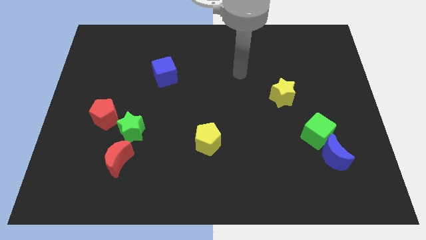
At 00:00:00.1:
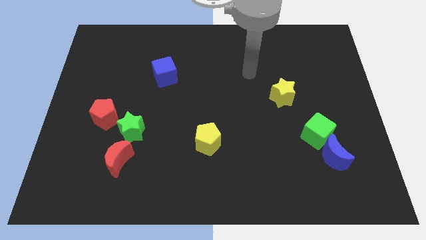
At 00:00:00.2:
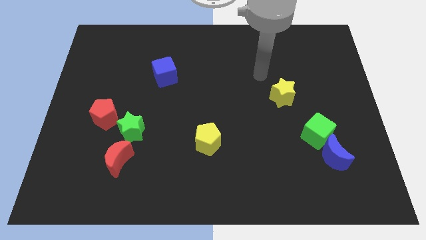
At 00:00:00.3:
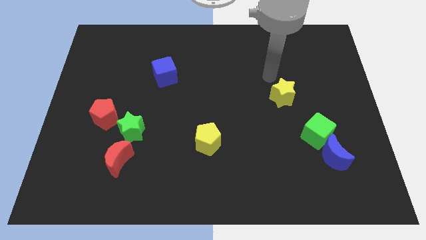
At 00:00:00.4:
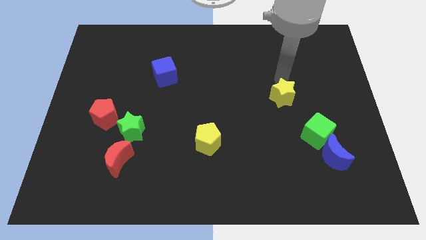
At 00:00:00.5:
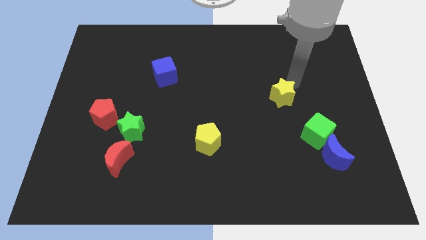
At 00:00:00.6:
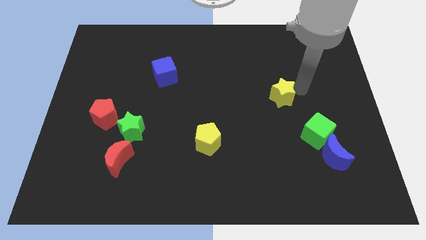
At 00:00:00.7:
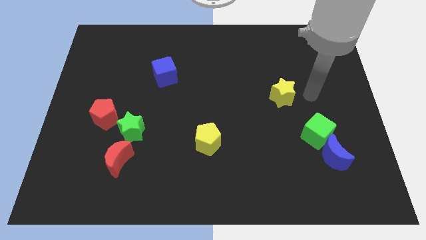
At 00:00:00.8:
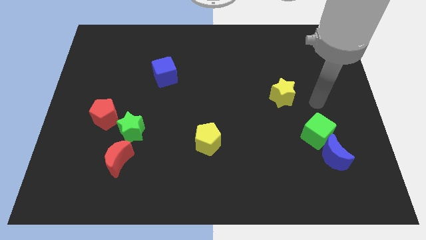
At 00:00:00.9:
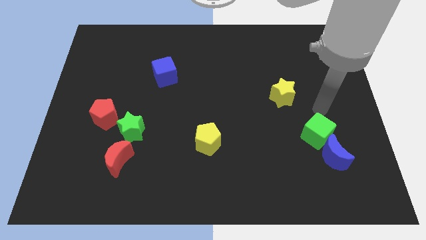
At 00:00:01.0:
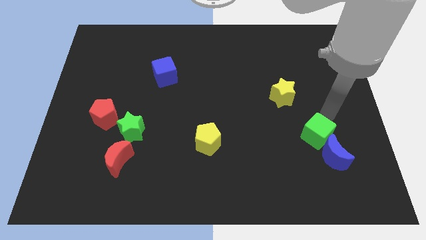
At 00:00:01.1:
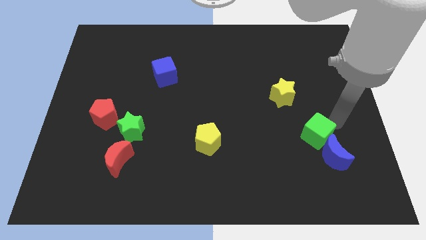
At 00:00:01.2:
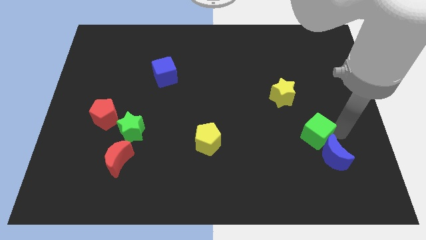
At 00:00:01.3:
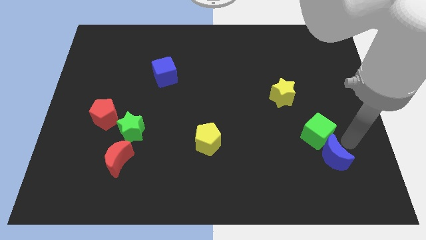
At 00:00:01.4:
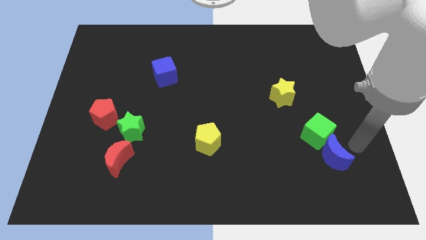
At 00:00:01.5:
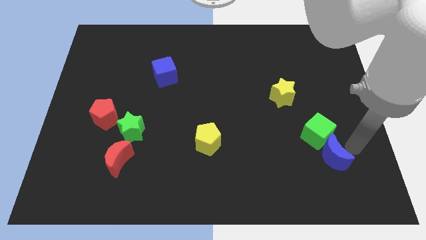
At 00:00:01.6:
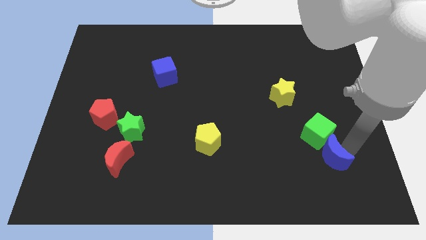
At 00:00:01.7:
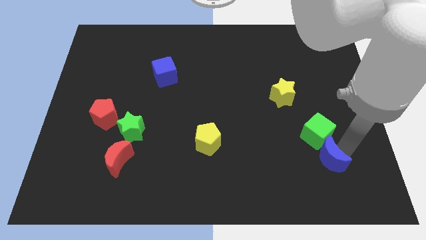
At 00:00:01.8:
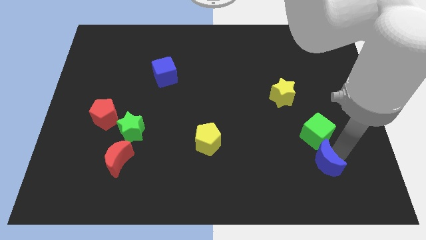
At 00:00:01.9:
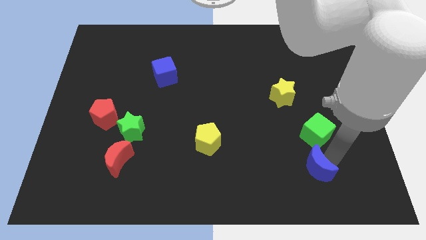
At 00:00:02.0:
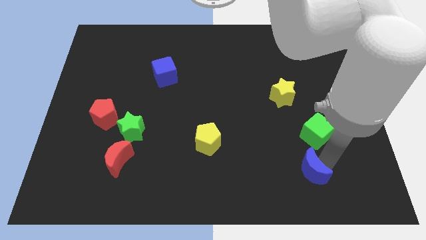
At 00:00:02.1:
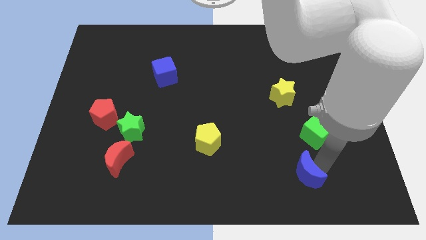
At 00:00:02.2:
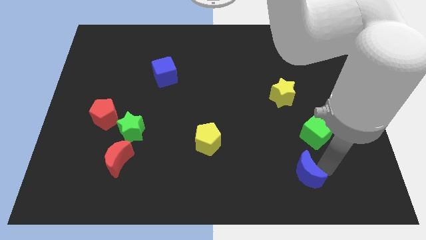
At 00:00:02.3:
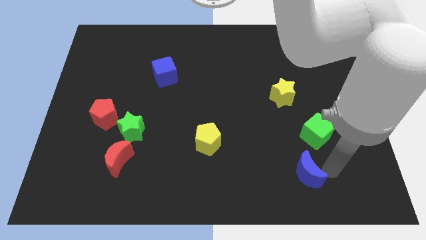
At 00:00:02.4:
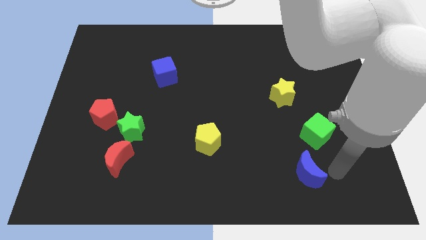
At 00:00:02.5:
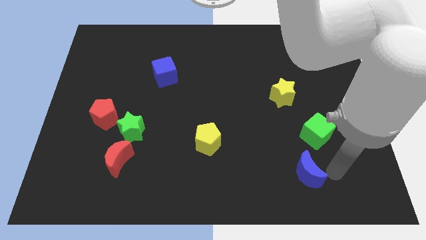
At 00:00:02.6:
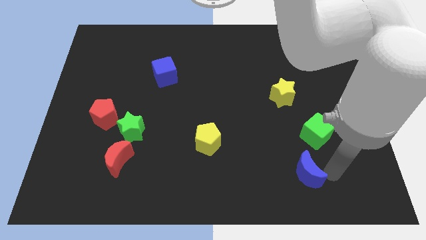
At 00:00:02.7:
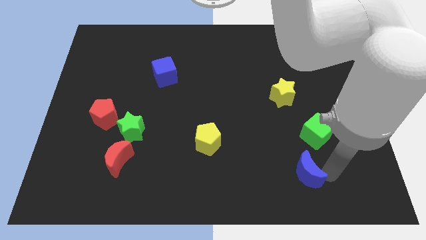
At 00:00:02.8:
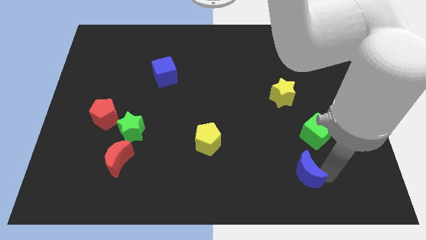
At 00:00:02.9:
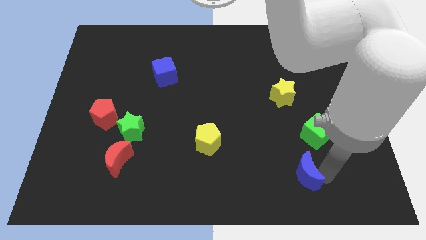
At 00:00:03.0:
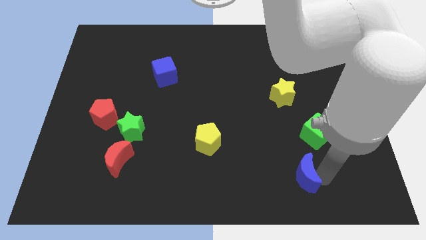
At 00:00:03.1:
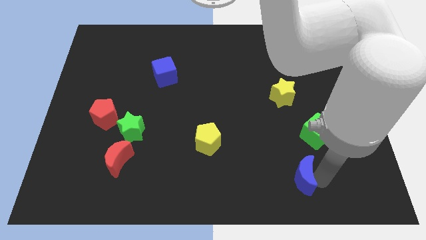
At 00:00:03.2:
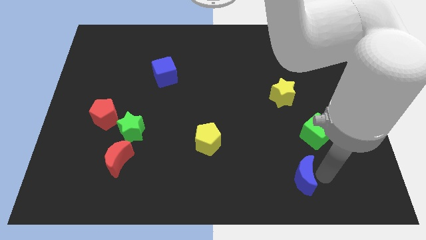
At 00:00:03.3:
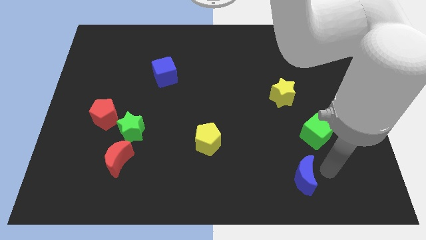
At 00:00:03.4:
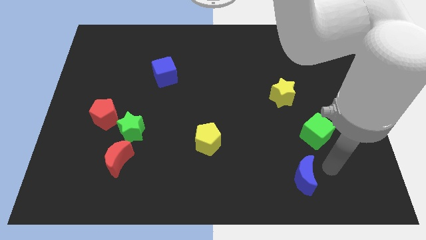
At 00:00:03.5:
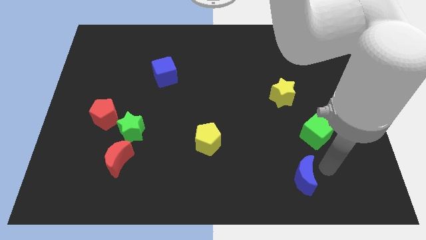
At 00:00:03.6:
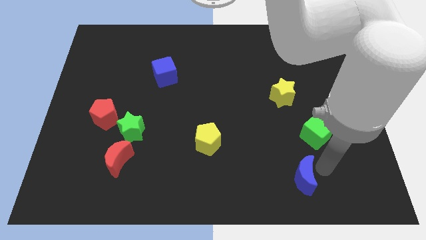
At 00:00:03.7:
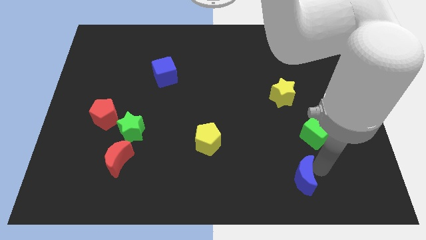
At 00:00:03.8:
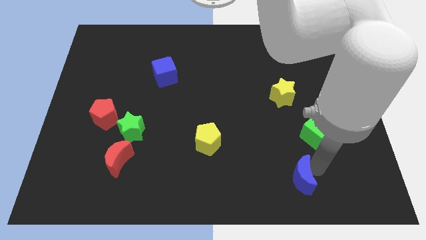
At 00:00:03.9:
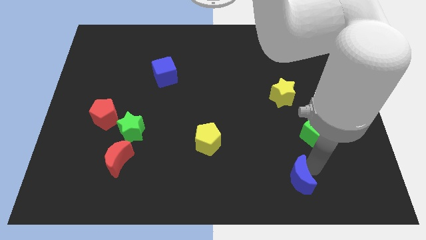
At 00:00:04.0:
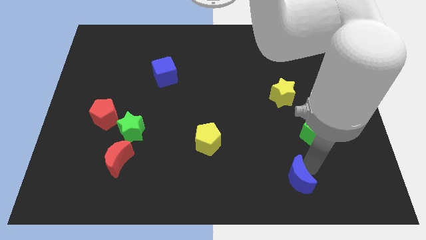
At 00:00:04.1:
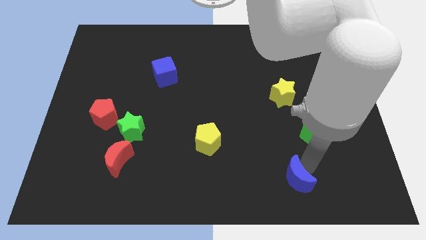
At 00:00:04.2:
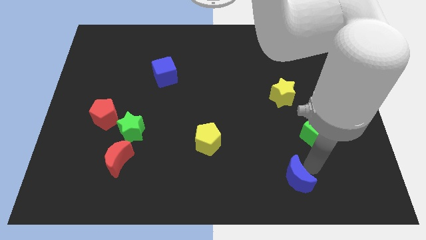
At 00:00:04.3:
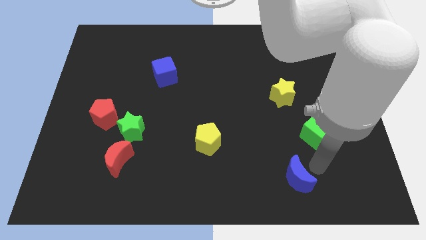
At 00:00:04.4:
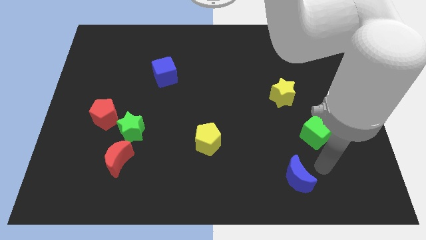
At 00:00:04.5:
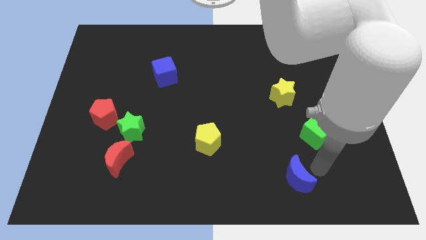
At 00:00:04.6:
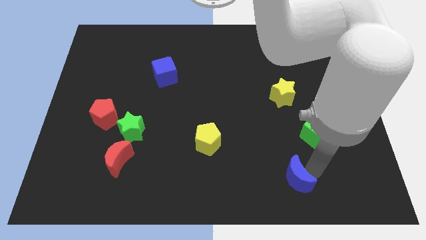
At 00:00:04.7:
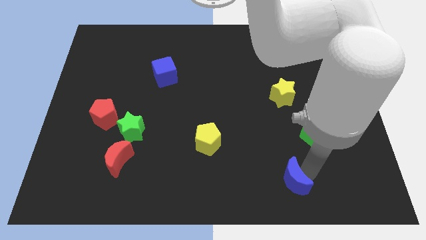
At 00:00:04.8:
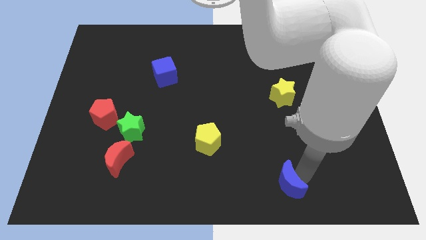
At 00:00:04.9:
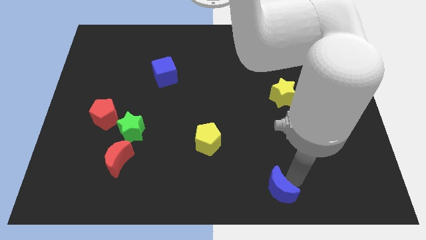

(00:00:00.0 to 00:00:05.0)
move the blue moon to the bottom side

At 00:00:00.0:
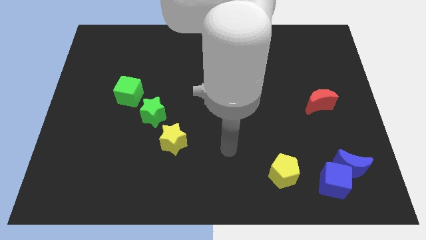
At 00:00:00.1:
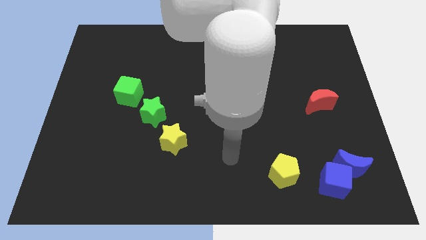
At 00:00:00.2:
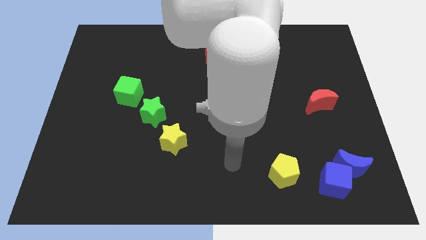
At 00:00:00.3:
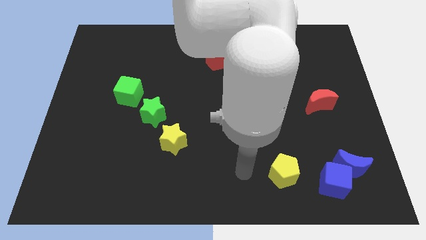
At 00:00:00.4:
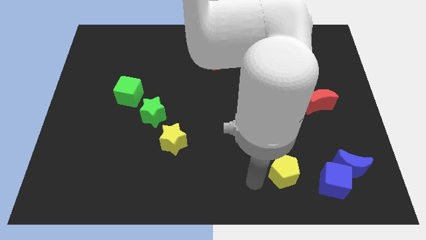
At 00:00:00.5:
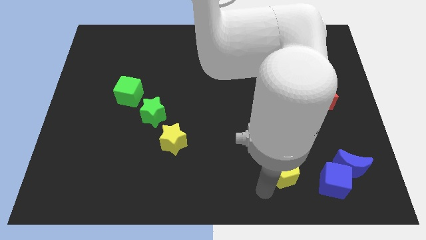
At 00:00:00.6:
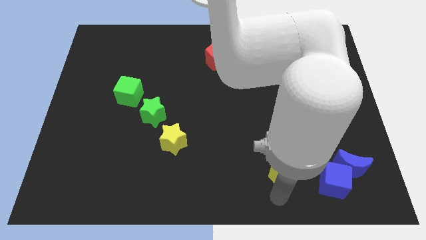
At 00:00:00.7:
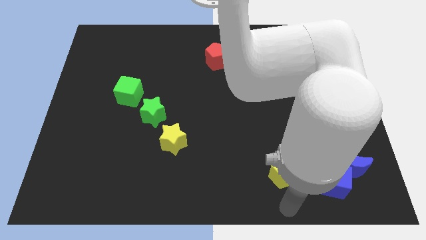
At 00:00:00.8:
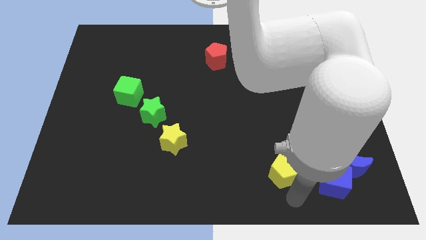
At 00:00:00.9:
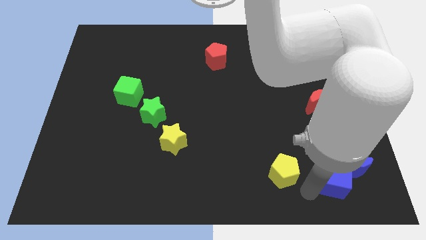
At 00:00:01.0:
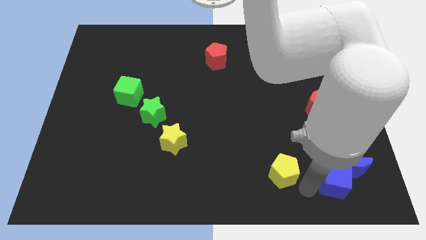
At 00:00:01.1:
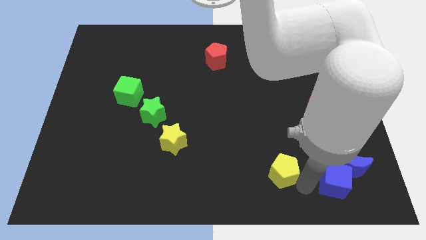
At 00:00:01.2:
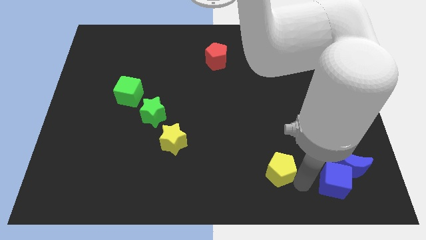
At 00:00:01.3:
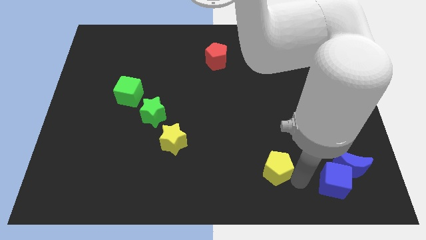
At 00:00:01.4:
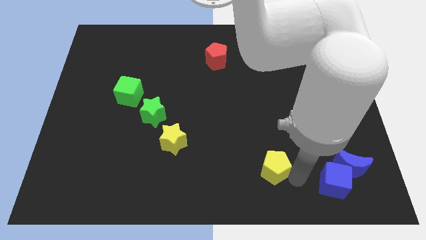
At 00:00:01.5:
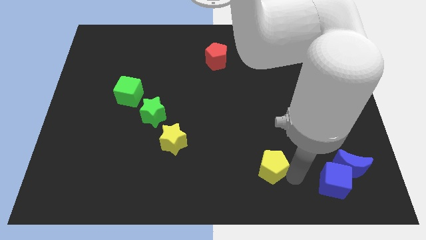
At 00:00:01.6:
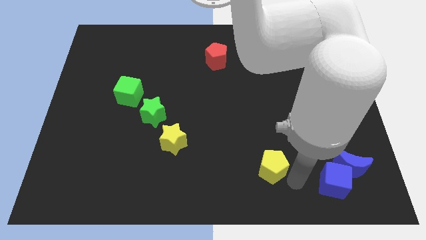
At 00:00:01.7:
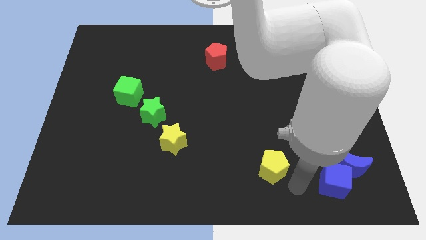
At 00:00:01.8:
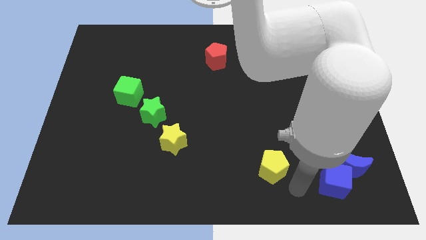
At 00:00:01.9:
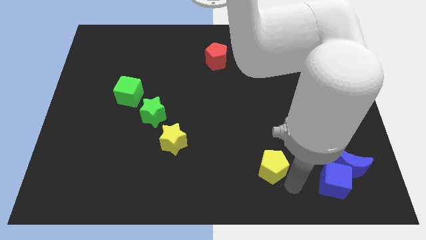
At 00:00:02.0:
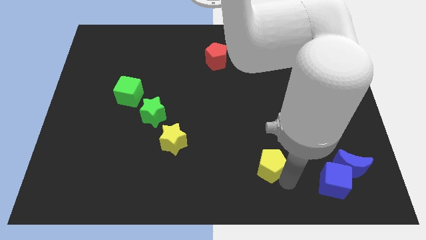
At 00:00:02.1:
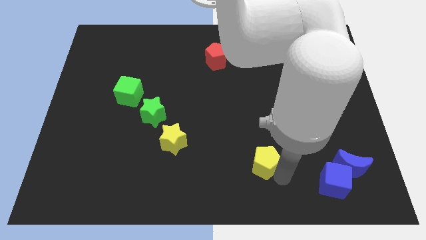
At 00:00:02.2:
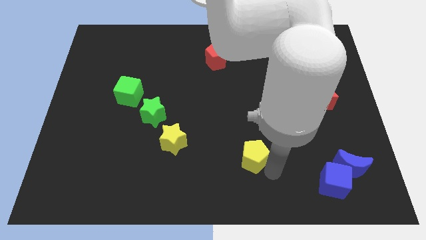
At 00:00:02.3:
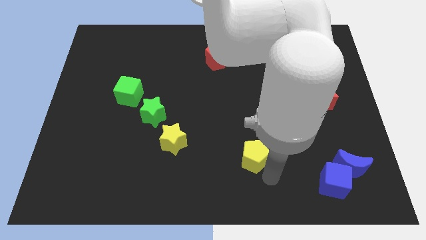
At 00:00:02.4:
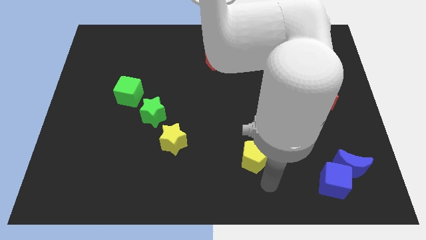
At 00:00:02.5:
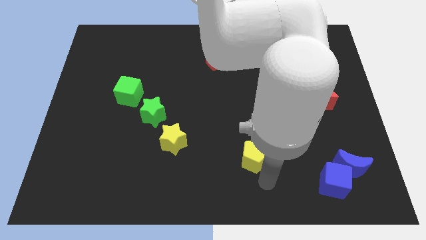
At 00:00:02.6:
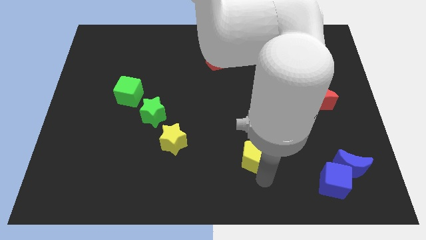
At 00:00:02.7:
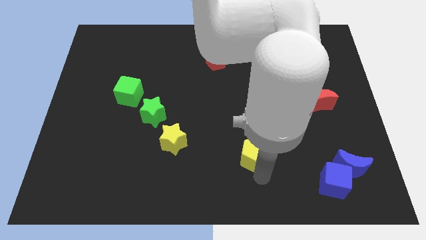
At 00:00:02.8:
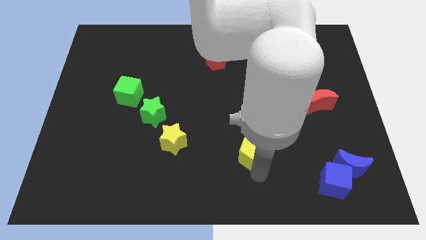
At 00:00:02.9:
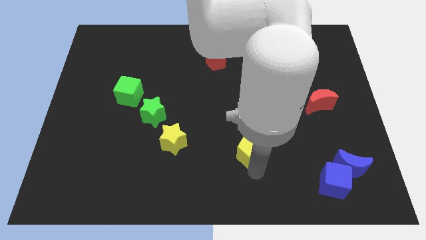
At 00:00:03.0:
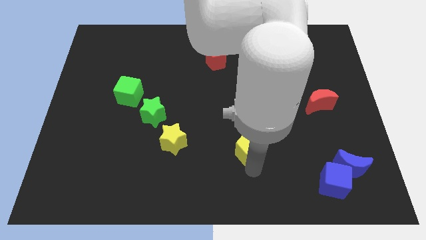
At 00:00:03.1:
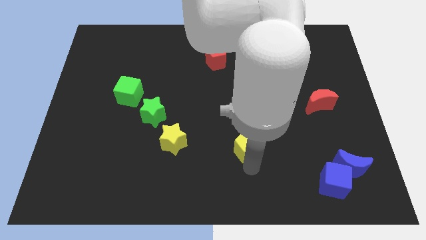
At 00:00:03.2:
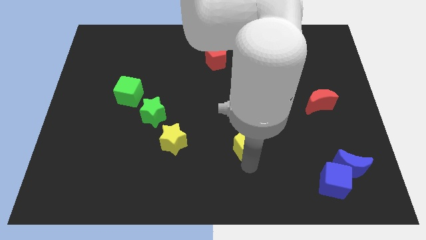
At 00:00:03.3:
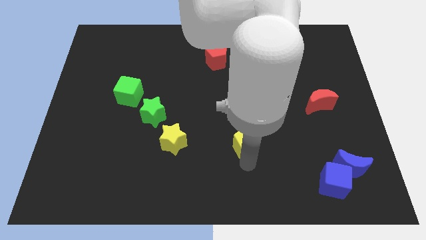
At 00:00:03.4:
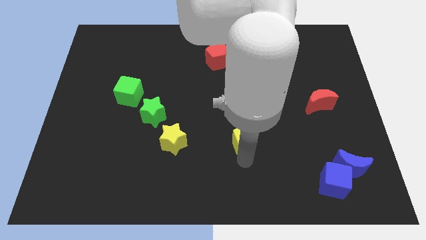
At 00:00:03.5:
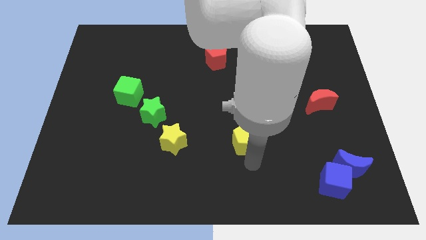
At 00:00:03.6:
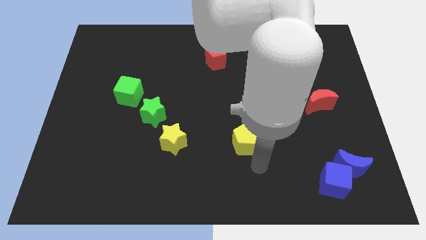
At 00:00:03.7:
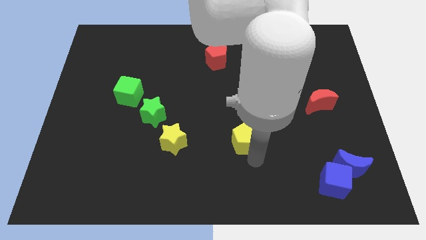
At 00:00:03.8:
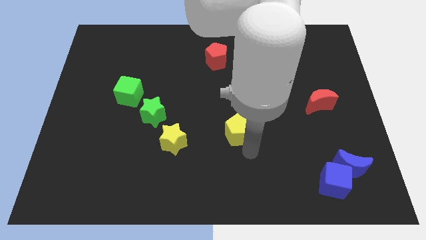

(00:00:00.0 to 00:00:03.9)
put the yellow pentagon to the middle
